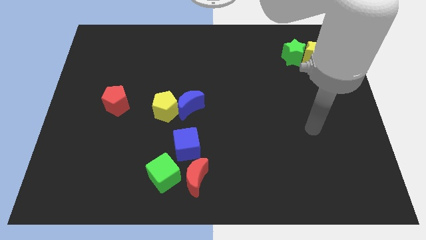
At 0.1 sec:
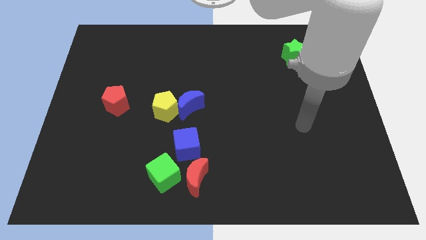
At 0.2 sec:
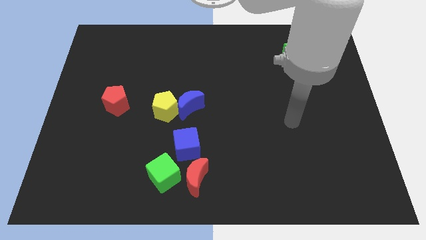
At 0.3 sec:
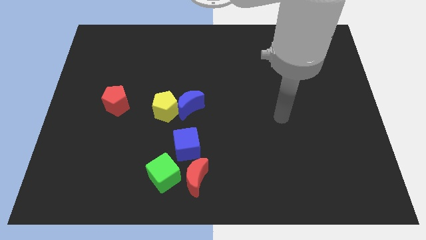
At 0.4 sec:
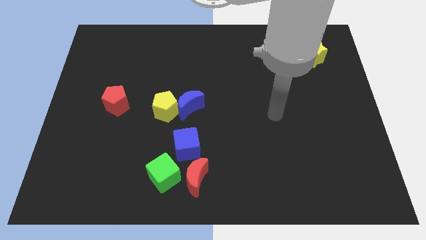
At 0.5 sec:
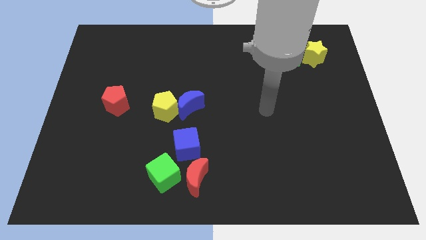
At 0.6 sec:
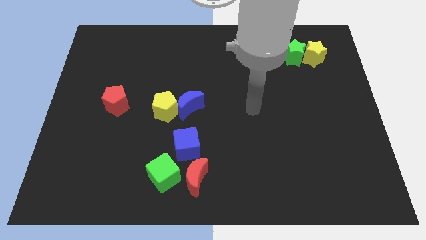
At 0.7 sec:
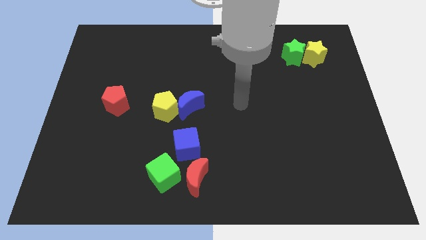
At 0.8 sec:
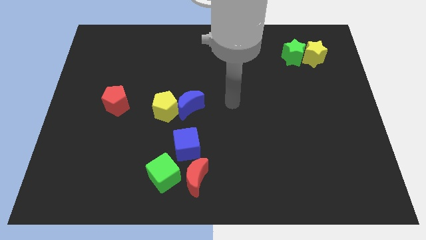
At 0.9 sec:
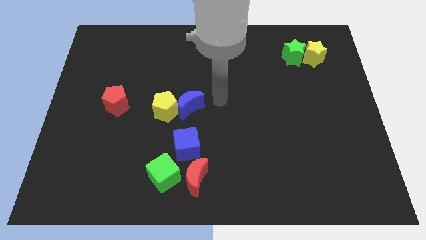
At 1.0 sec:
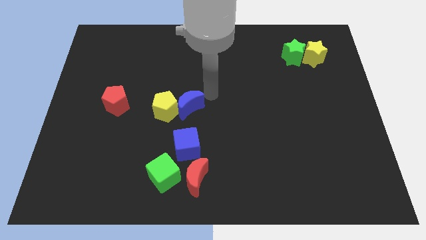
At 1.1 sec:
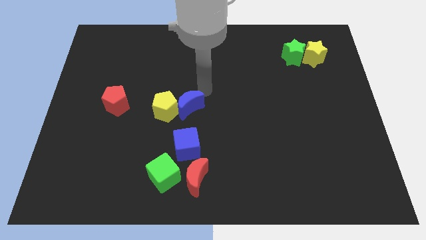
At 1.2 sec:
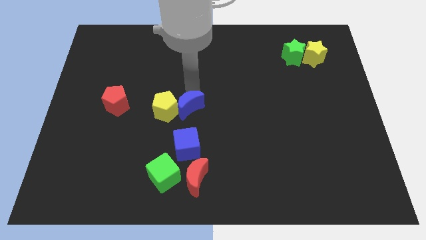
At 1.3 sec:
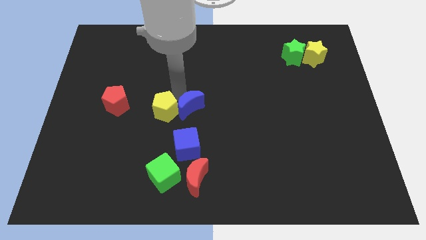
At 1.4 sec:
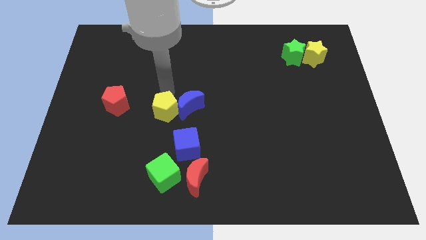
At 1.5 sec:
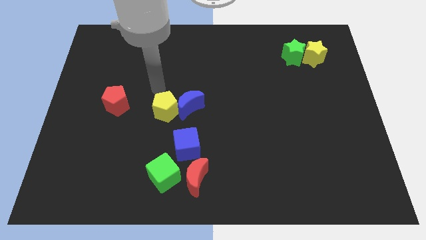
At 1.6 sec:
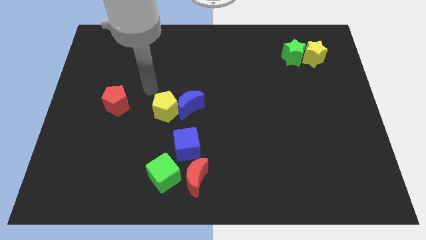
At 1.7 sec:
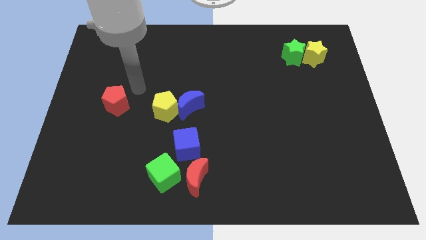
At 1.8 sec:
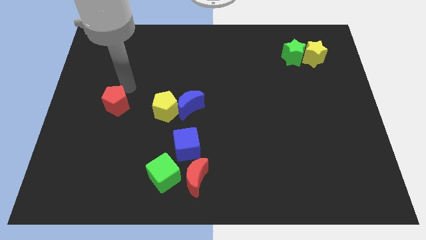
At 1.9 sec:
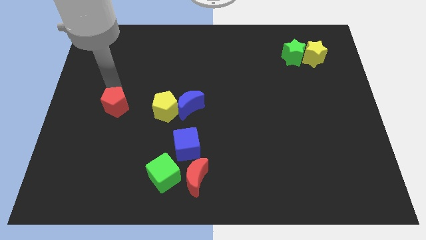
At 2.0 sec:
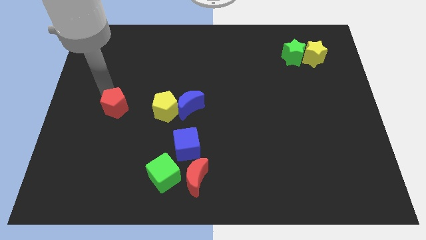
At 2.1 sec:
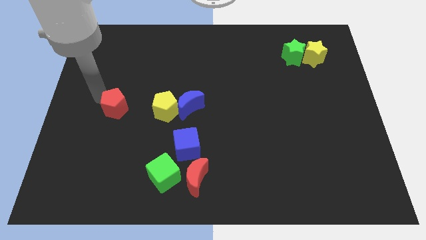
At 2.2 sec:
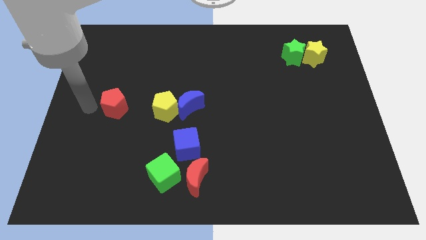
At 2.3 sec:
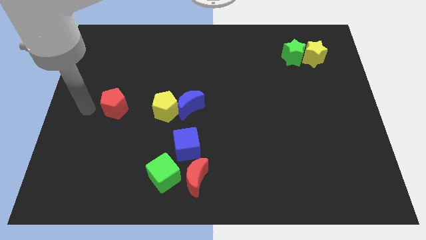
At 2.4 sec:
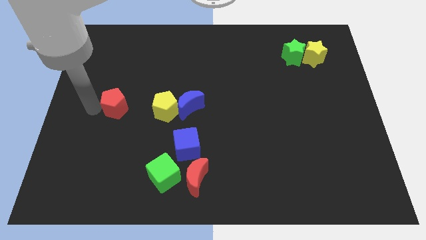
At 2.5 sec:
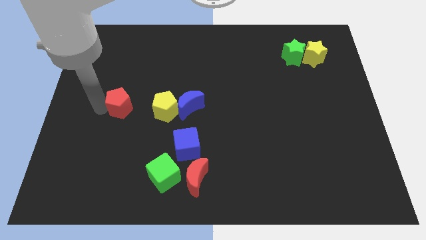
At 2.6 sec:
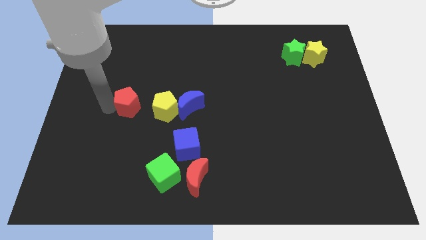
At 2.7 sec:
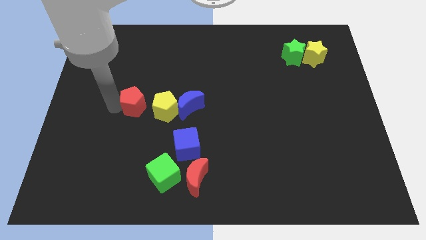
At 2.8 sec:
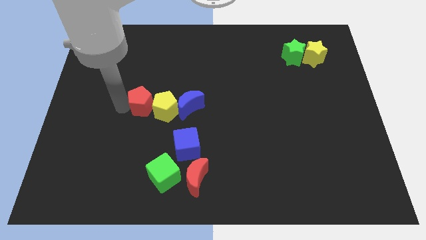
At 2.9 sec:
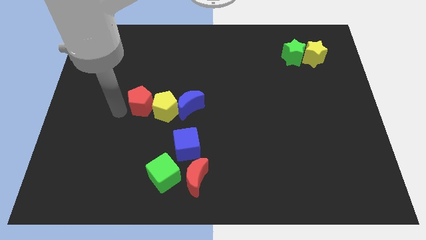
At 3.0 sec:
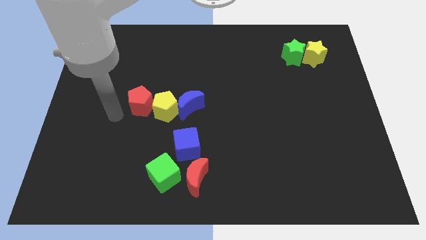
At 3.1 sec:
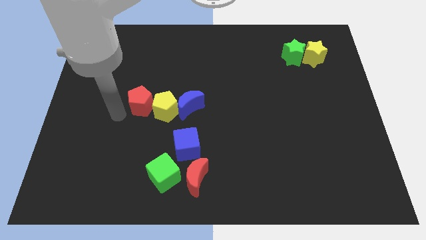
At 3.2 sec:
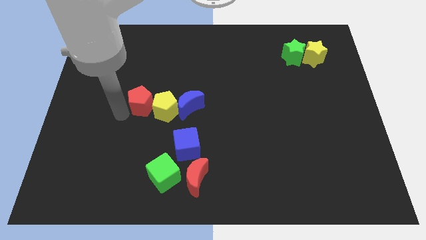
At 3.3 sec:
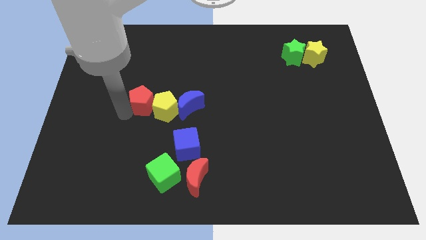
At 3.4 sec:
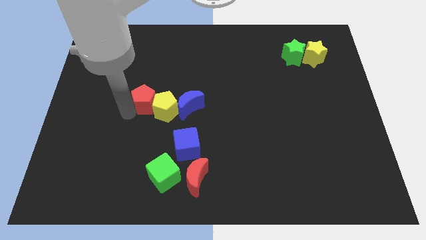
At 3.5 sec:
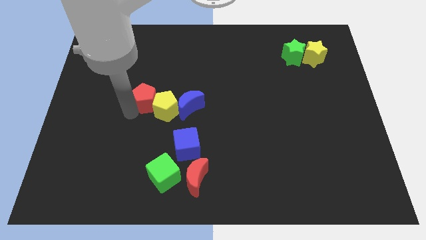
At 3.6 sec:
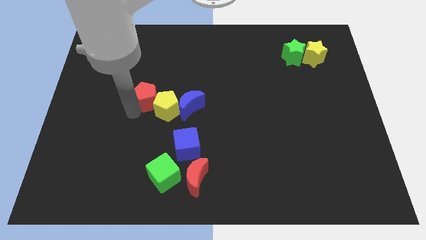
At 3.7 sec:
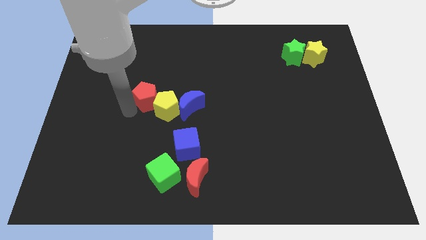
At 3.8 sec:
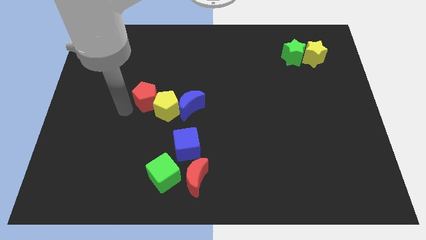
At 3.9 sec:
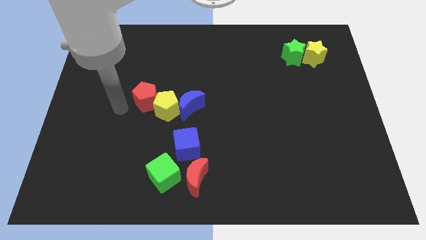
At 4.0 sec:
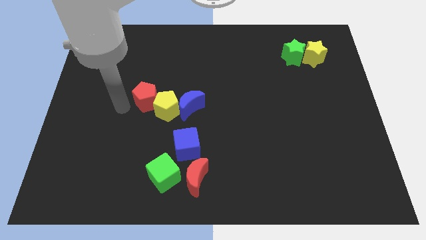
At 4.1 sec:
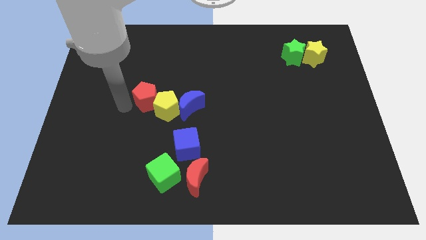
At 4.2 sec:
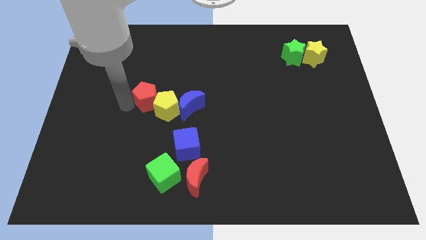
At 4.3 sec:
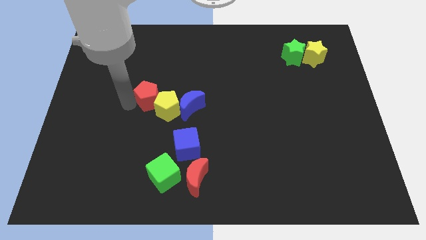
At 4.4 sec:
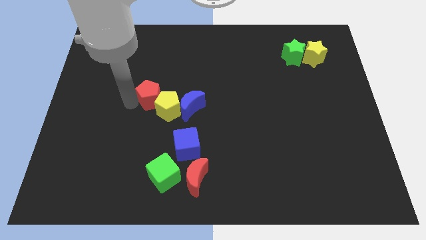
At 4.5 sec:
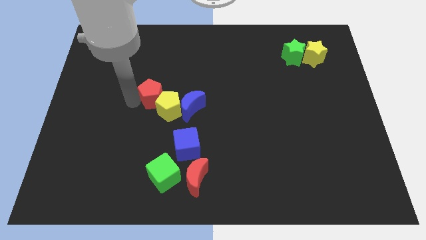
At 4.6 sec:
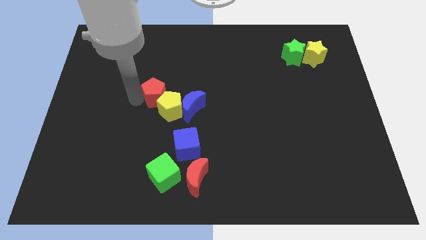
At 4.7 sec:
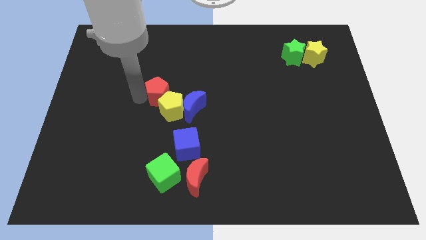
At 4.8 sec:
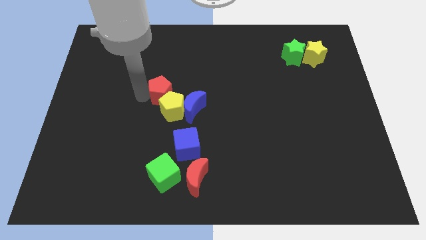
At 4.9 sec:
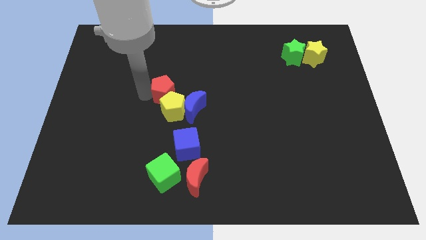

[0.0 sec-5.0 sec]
move the red pentagon to the center of the board

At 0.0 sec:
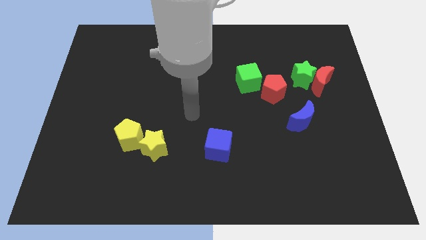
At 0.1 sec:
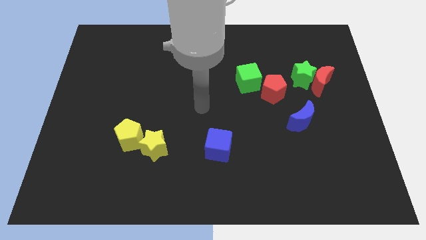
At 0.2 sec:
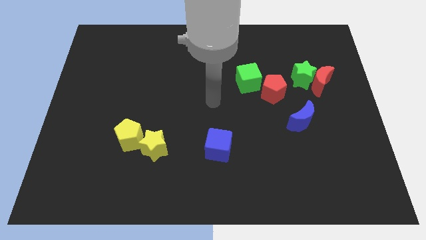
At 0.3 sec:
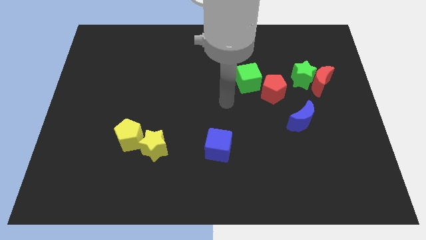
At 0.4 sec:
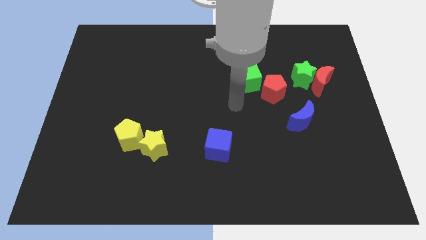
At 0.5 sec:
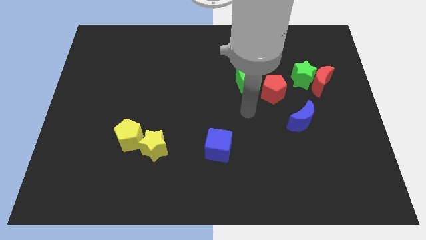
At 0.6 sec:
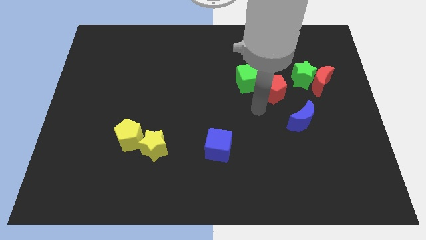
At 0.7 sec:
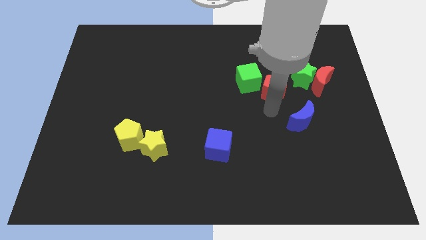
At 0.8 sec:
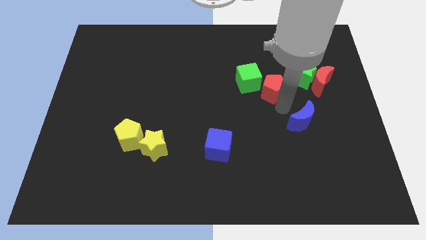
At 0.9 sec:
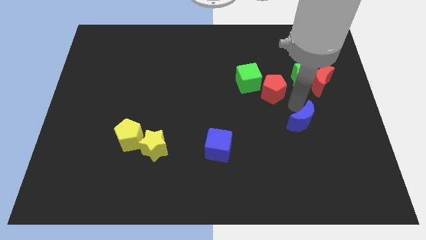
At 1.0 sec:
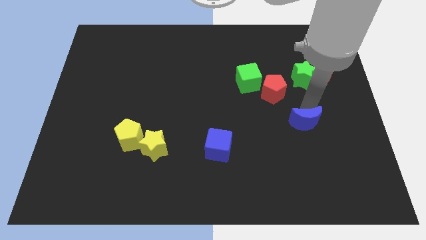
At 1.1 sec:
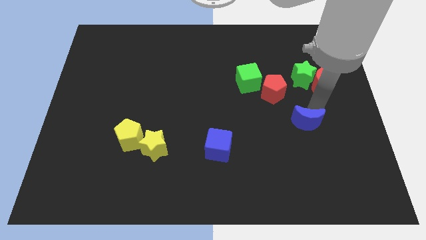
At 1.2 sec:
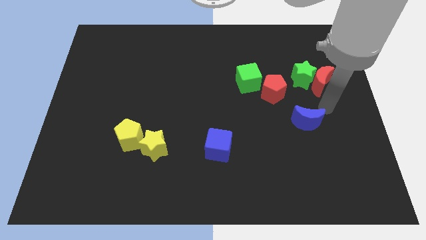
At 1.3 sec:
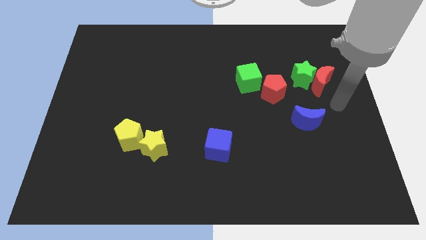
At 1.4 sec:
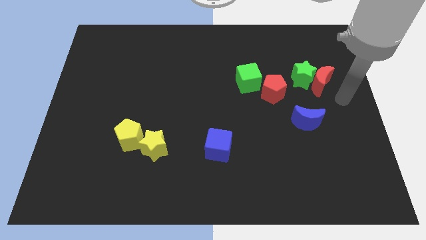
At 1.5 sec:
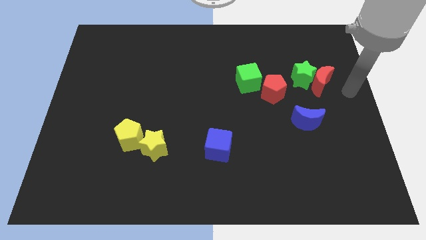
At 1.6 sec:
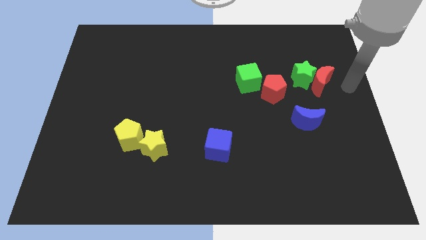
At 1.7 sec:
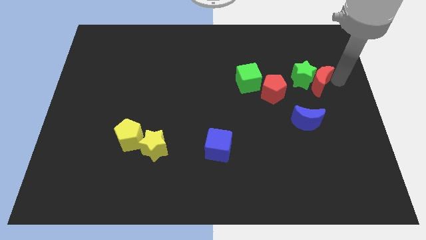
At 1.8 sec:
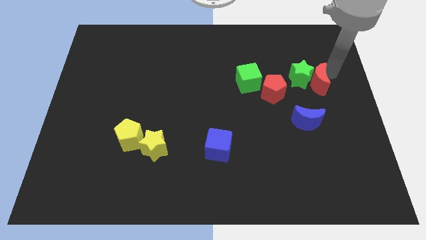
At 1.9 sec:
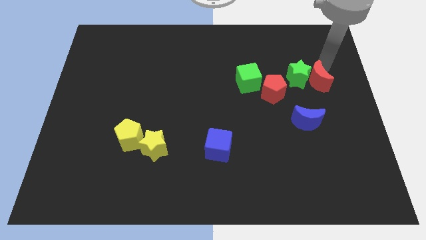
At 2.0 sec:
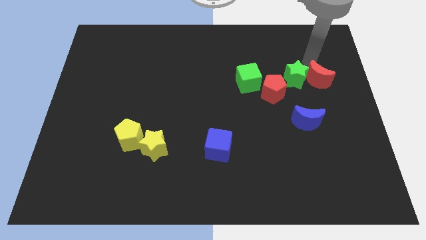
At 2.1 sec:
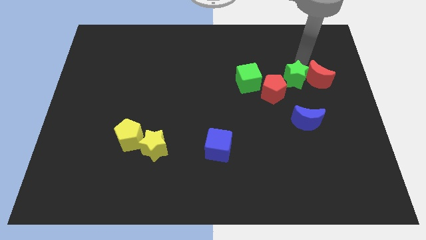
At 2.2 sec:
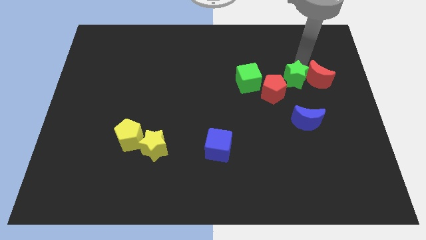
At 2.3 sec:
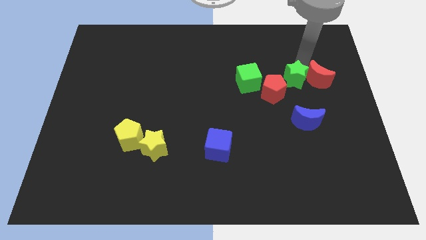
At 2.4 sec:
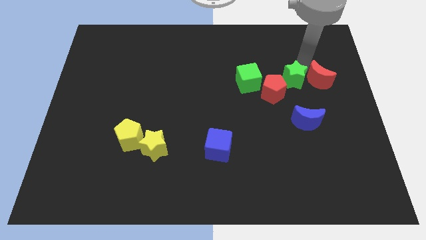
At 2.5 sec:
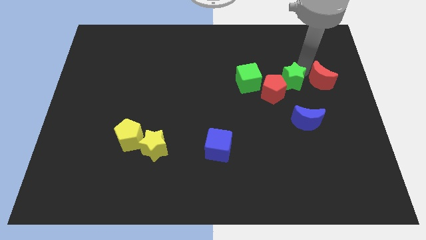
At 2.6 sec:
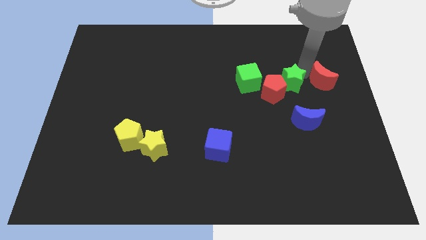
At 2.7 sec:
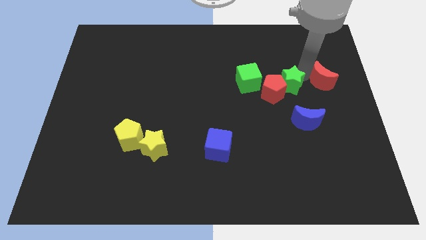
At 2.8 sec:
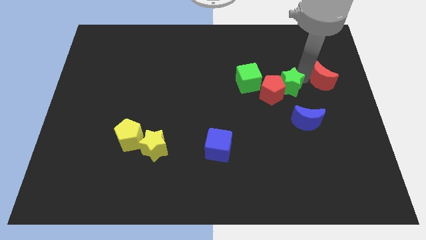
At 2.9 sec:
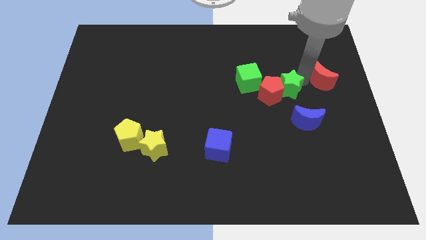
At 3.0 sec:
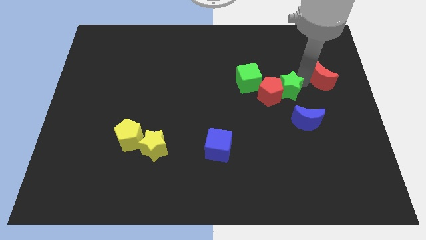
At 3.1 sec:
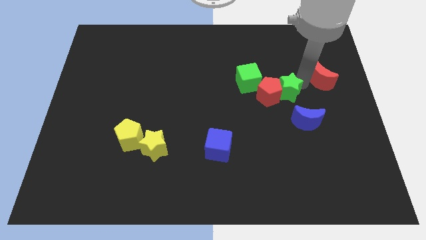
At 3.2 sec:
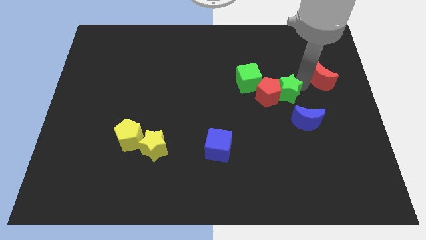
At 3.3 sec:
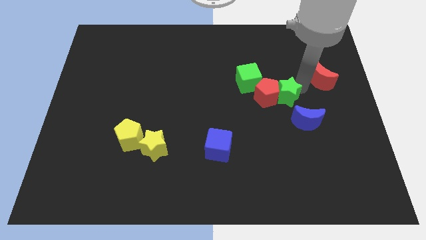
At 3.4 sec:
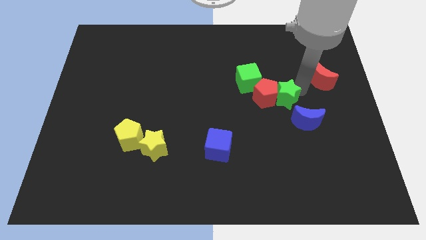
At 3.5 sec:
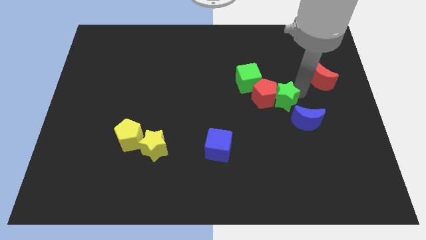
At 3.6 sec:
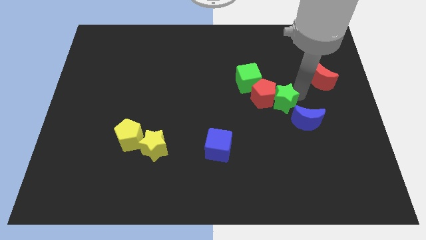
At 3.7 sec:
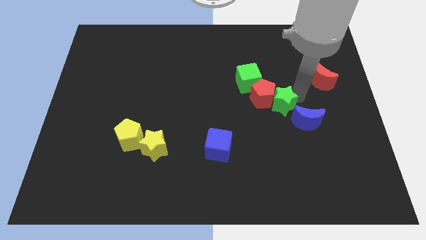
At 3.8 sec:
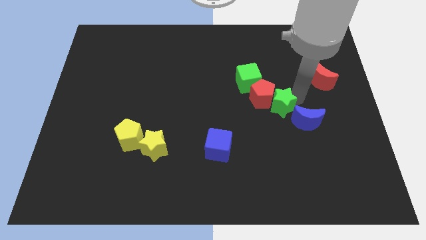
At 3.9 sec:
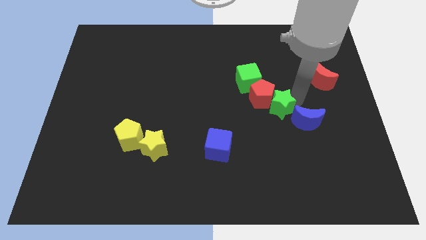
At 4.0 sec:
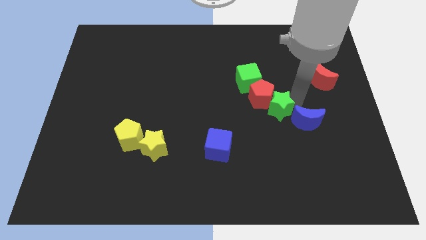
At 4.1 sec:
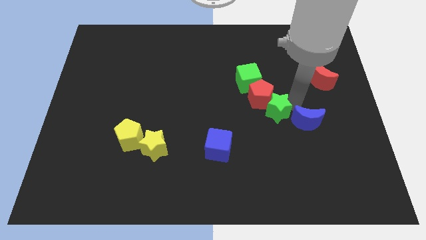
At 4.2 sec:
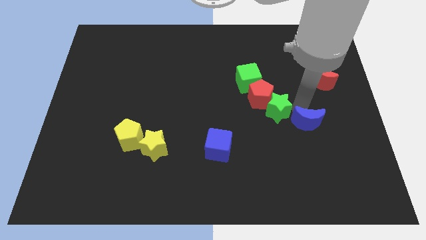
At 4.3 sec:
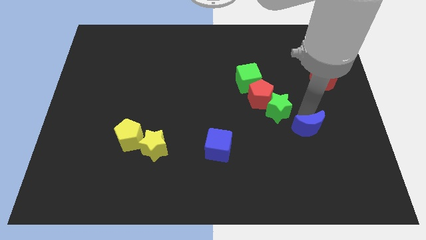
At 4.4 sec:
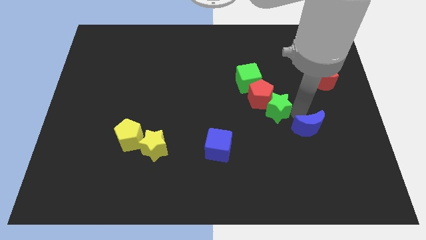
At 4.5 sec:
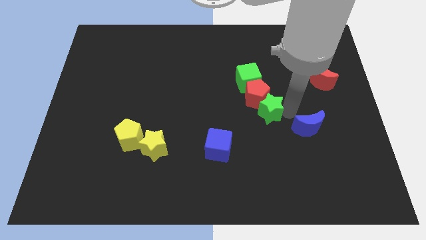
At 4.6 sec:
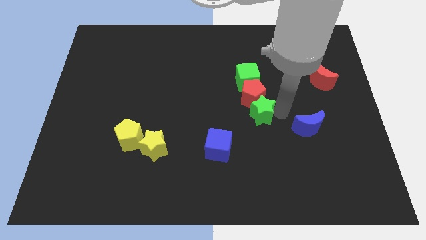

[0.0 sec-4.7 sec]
push the green star to the center of the board
